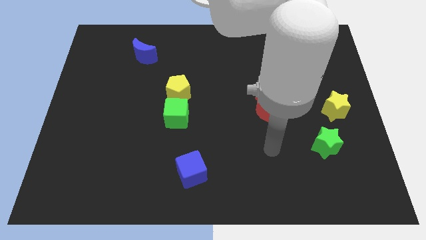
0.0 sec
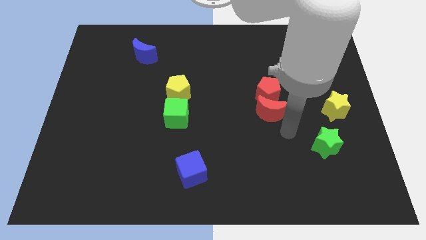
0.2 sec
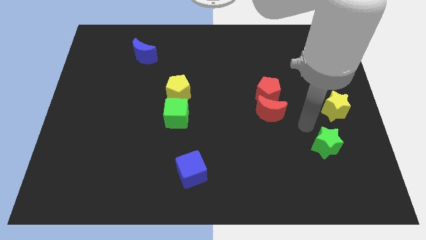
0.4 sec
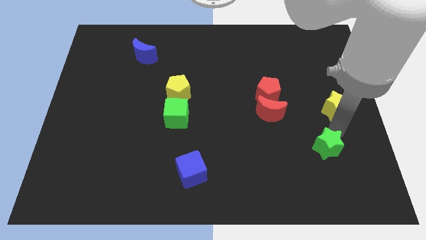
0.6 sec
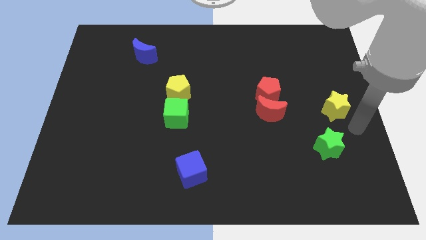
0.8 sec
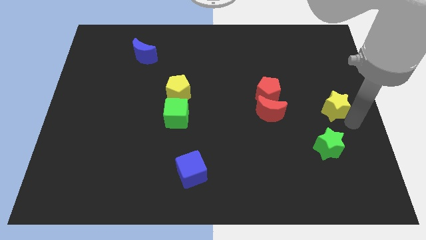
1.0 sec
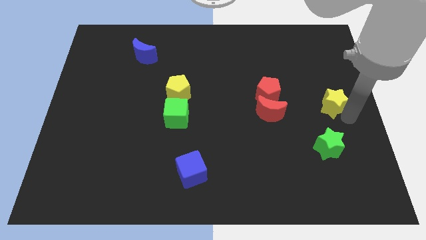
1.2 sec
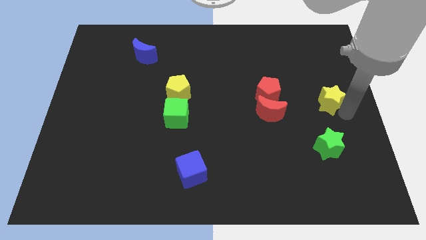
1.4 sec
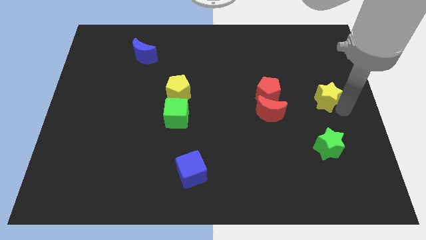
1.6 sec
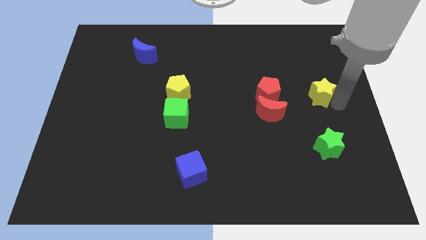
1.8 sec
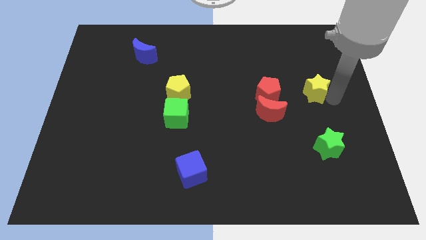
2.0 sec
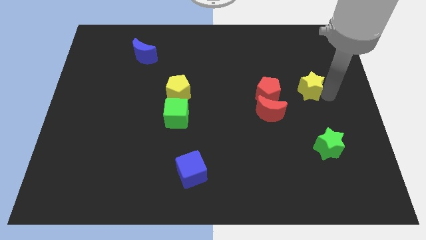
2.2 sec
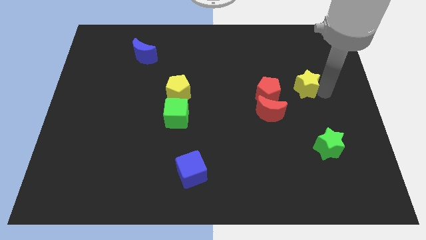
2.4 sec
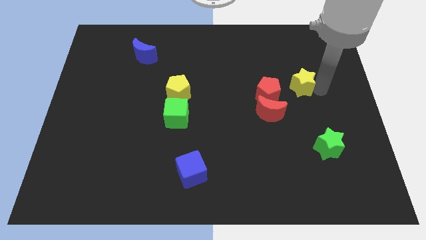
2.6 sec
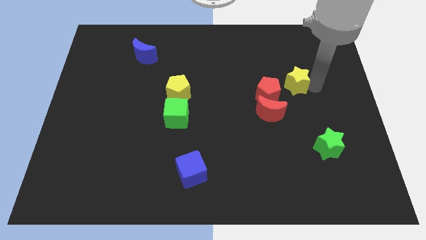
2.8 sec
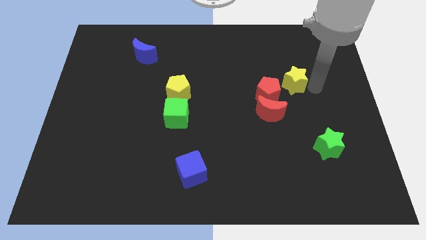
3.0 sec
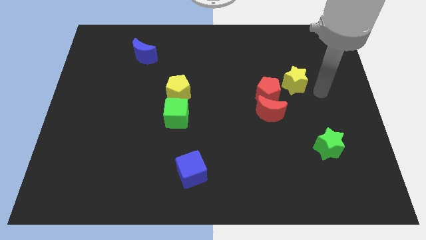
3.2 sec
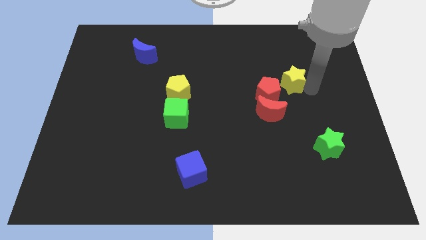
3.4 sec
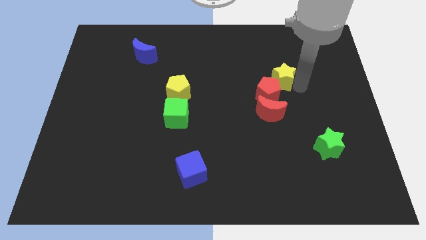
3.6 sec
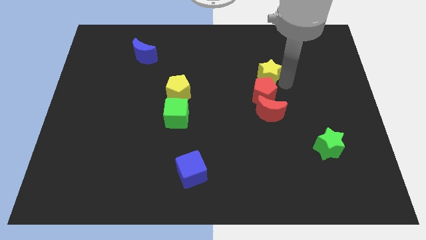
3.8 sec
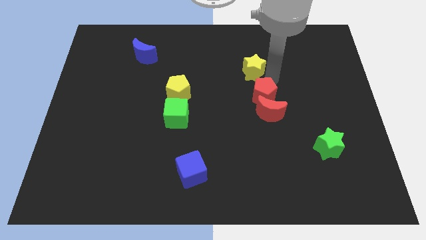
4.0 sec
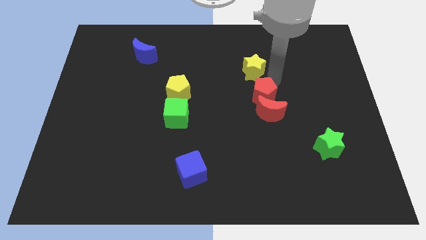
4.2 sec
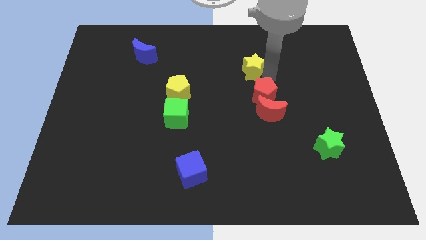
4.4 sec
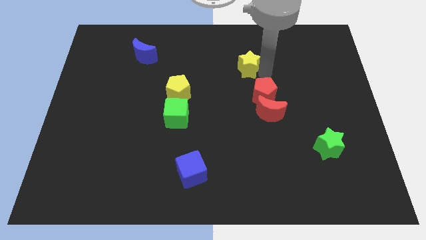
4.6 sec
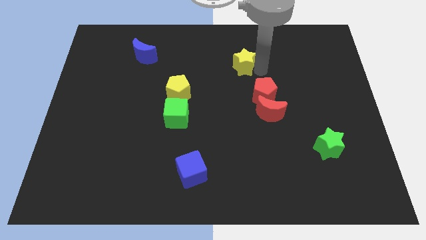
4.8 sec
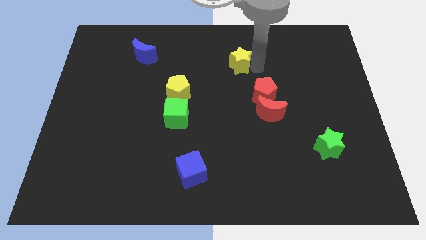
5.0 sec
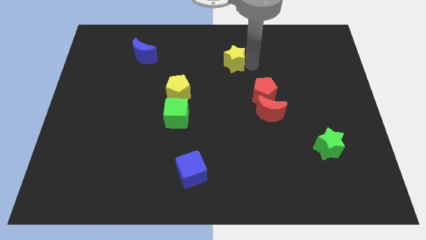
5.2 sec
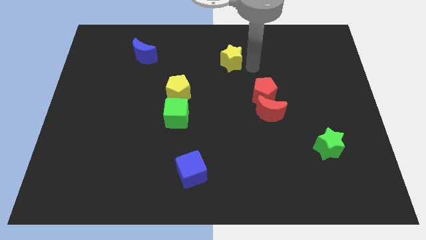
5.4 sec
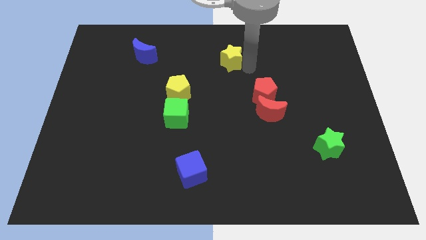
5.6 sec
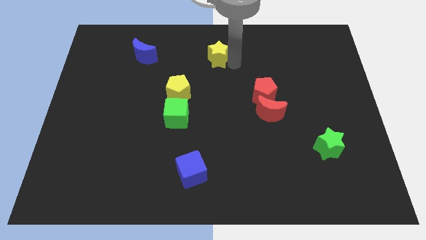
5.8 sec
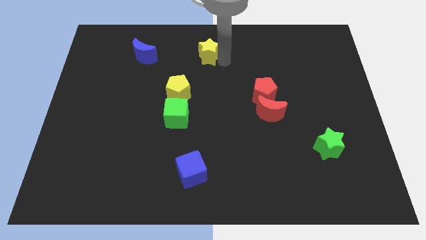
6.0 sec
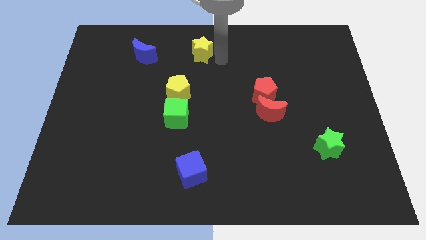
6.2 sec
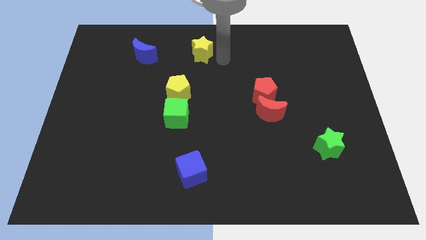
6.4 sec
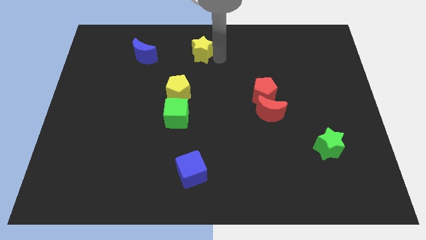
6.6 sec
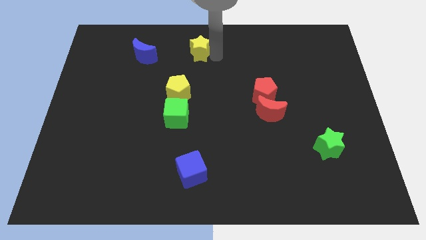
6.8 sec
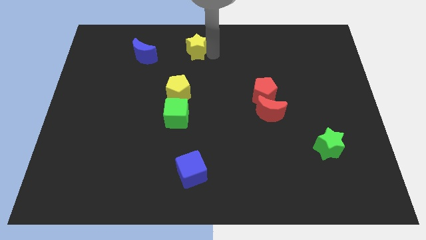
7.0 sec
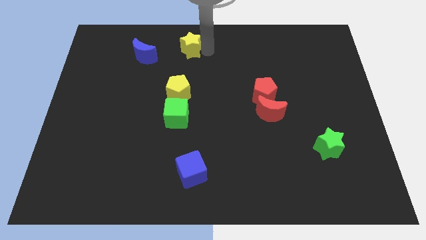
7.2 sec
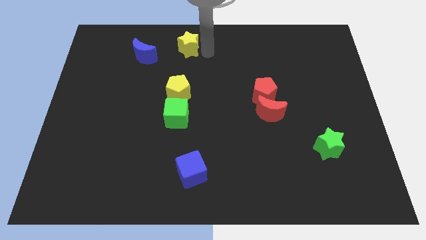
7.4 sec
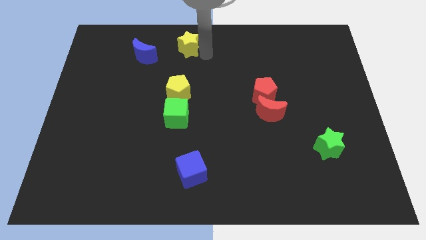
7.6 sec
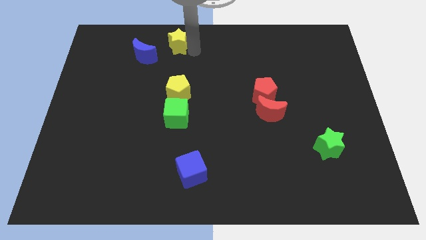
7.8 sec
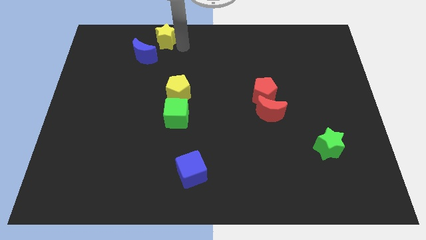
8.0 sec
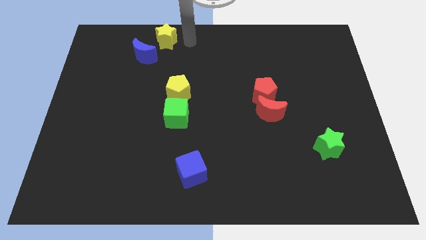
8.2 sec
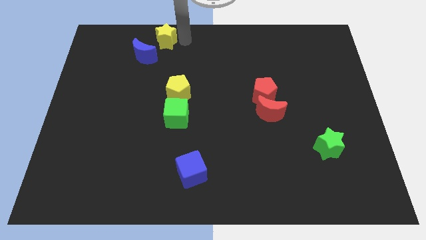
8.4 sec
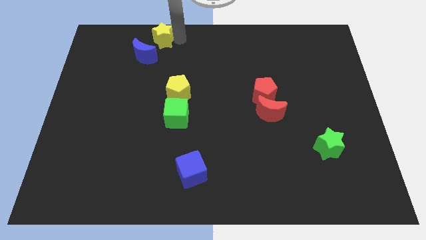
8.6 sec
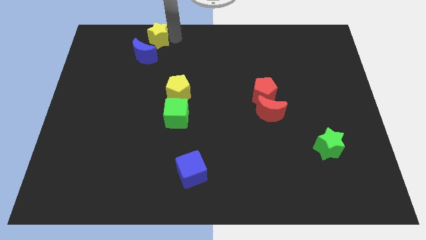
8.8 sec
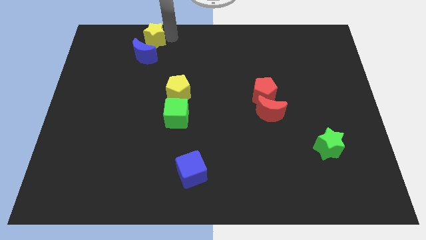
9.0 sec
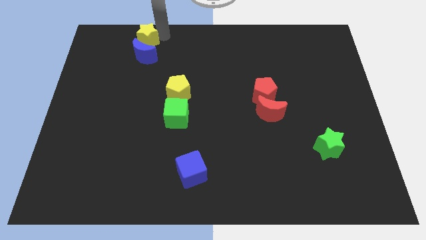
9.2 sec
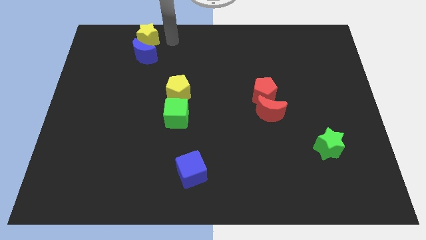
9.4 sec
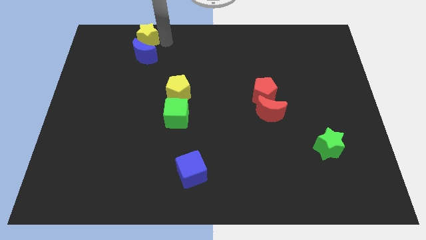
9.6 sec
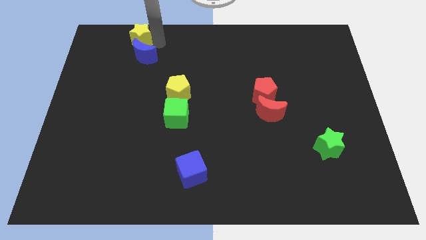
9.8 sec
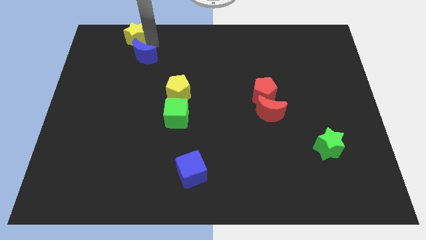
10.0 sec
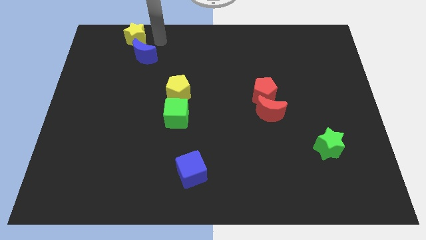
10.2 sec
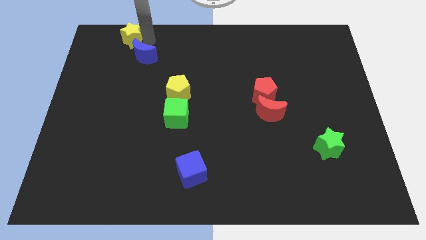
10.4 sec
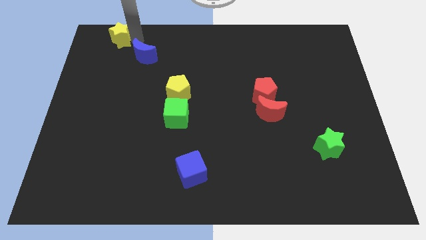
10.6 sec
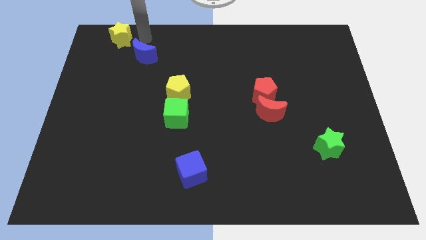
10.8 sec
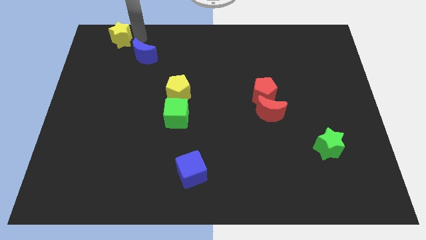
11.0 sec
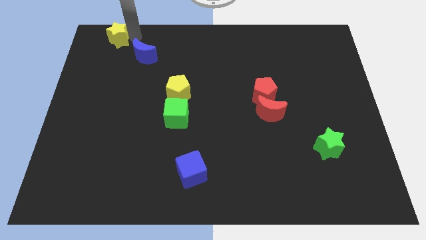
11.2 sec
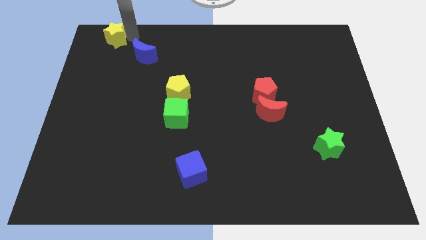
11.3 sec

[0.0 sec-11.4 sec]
push the yellow star to the top left corner
